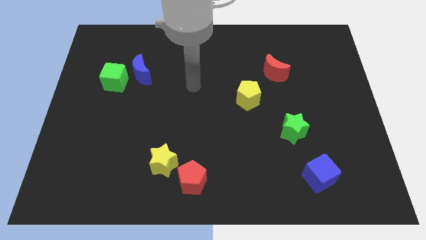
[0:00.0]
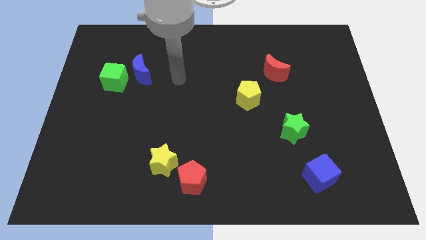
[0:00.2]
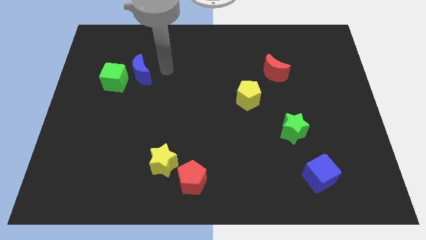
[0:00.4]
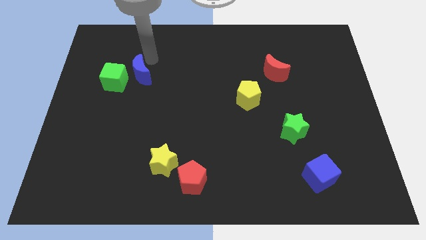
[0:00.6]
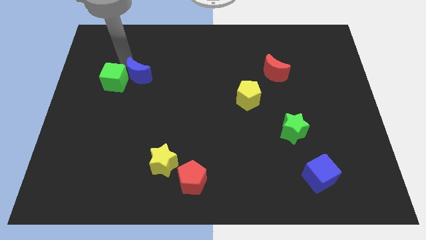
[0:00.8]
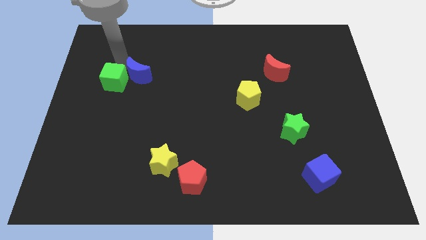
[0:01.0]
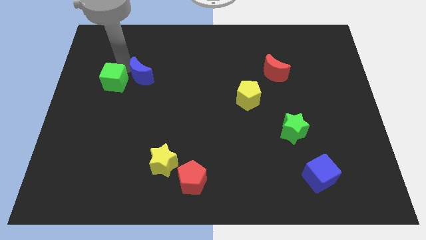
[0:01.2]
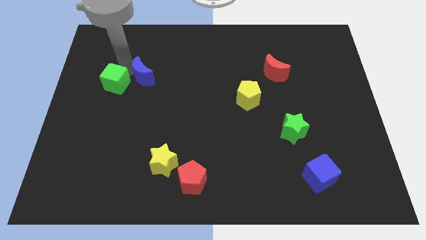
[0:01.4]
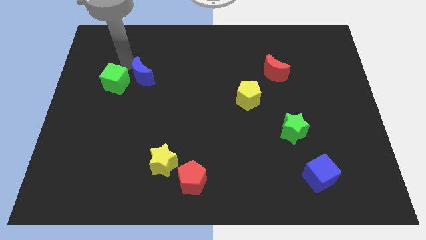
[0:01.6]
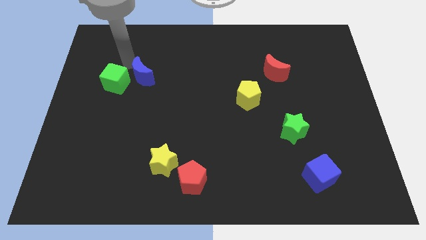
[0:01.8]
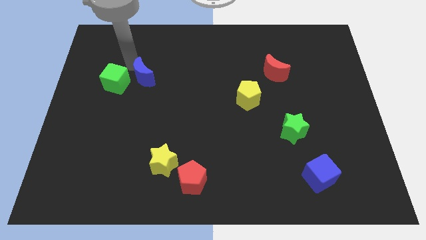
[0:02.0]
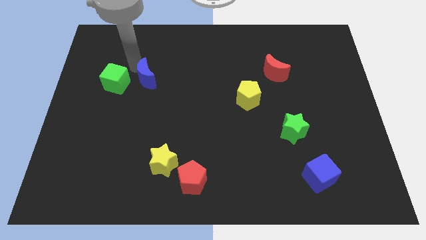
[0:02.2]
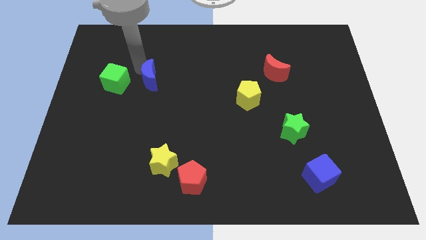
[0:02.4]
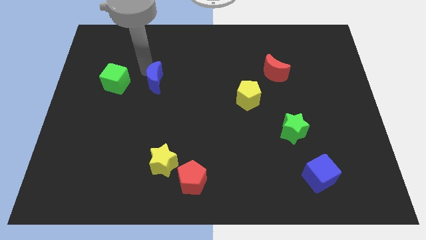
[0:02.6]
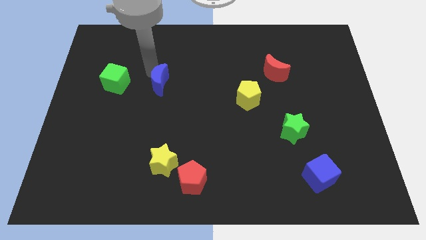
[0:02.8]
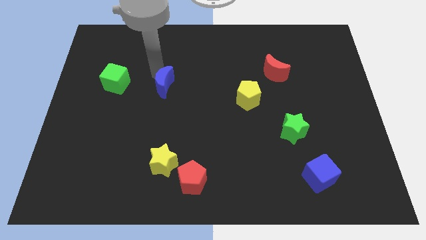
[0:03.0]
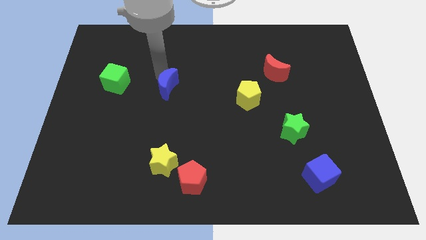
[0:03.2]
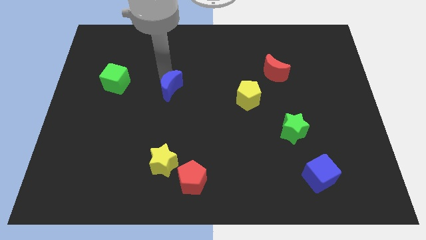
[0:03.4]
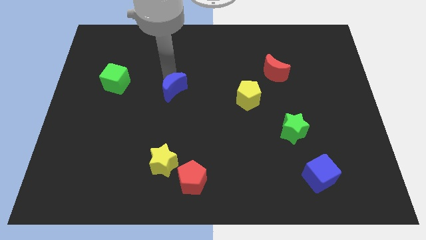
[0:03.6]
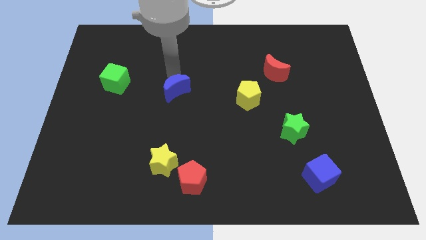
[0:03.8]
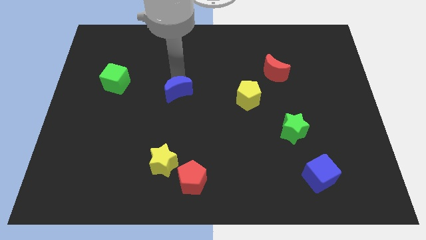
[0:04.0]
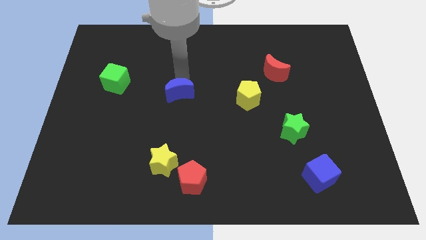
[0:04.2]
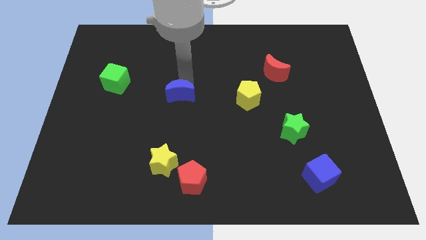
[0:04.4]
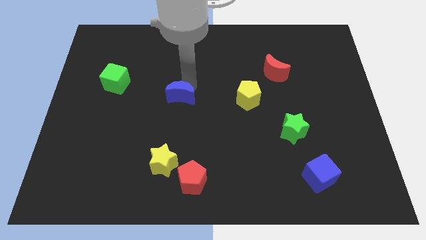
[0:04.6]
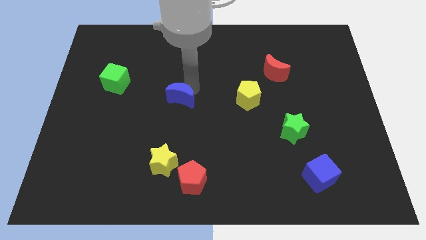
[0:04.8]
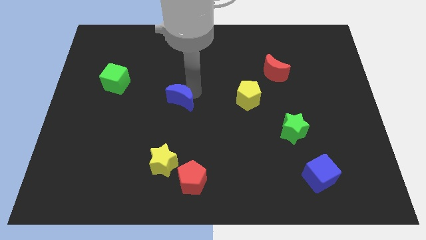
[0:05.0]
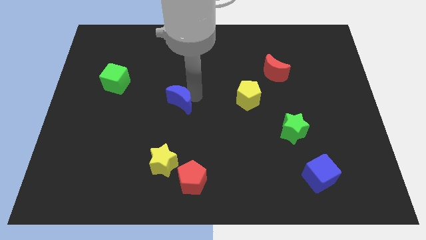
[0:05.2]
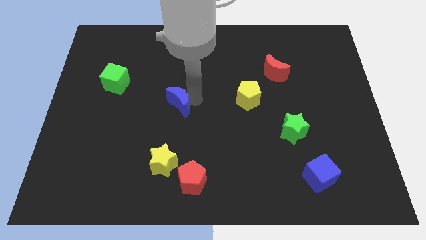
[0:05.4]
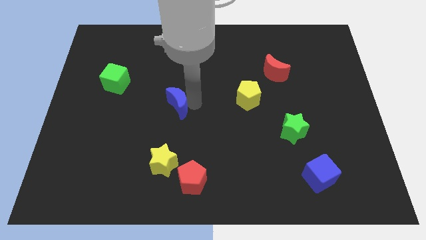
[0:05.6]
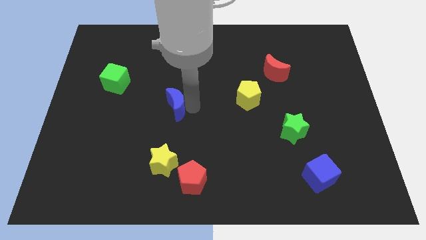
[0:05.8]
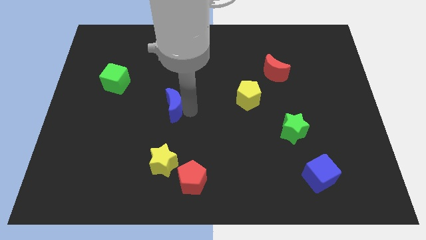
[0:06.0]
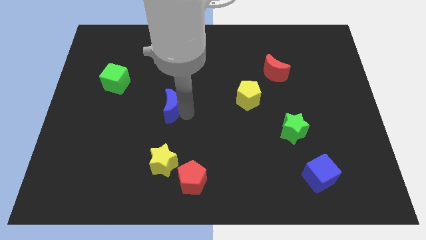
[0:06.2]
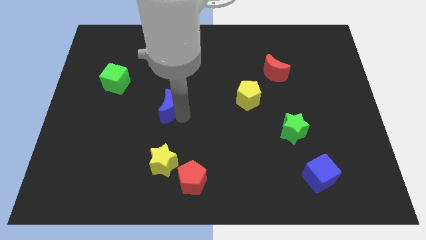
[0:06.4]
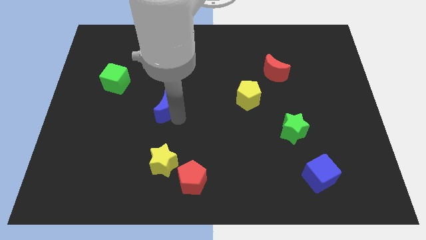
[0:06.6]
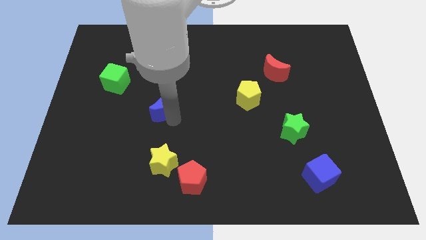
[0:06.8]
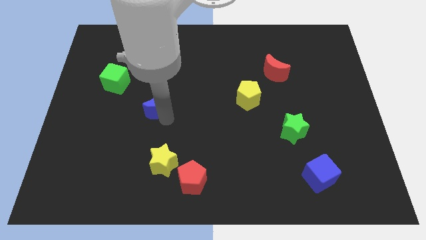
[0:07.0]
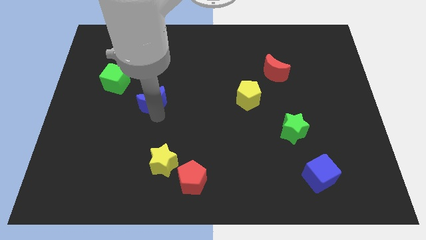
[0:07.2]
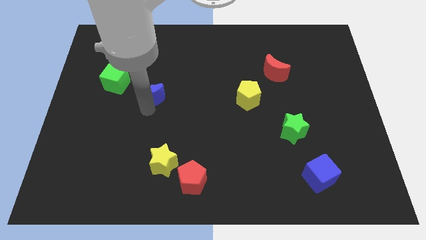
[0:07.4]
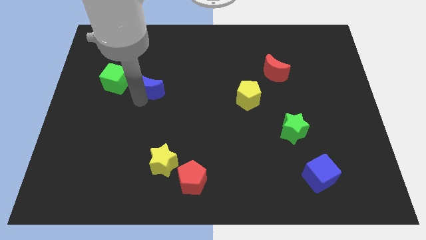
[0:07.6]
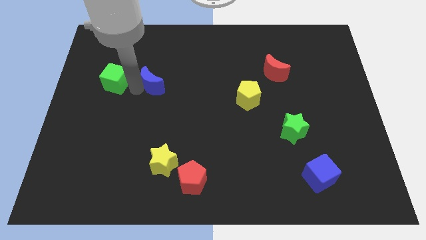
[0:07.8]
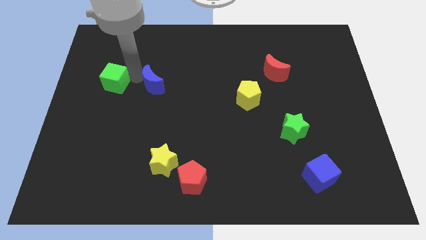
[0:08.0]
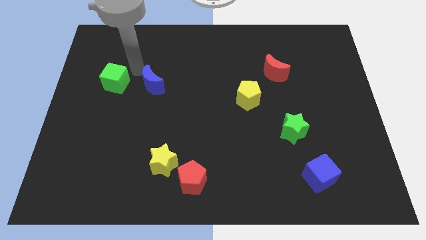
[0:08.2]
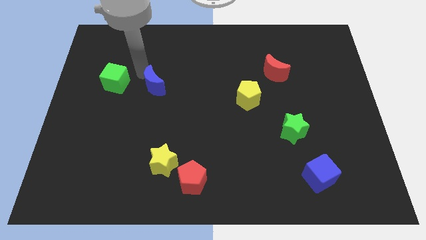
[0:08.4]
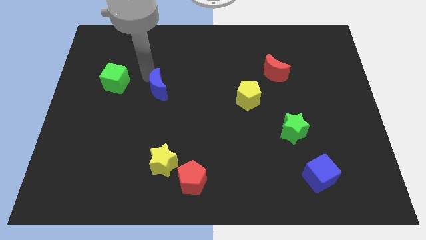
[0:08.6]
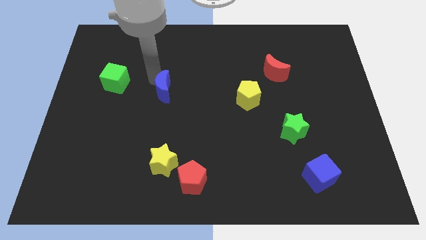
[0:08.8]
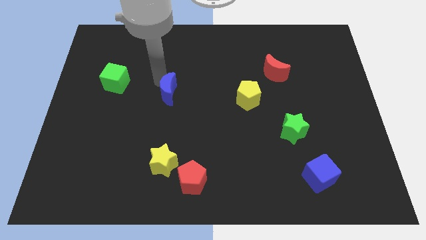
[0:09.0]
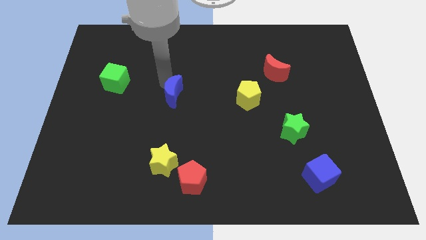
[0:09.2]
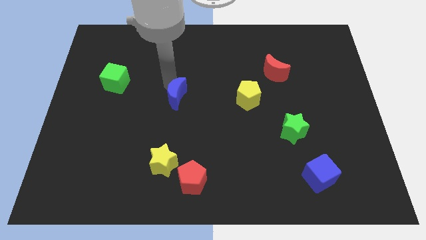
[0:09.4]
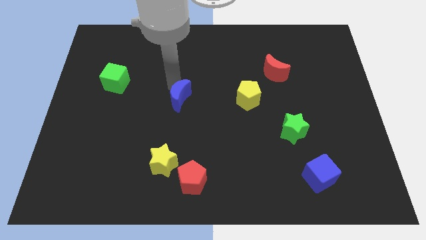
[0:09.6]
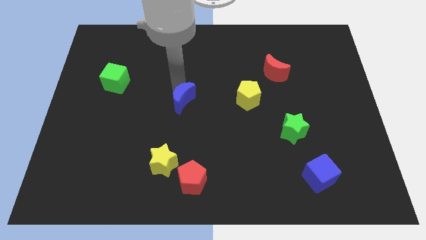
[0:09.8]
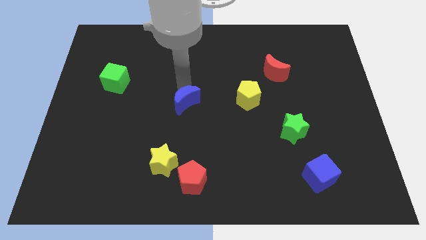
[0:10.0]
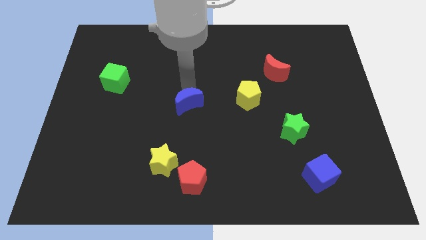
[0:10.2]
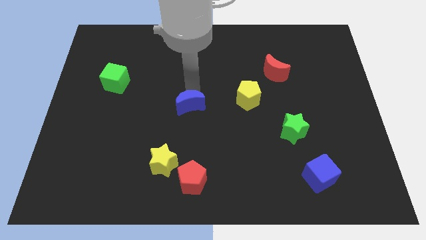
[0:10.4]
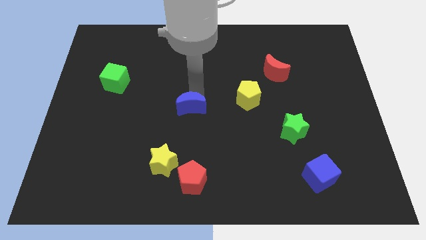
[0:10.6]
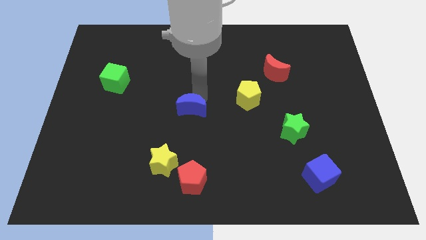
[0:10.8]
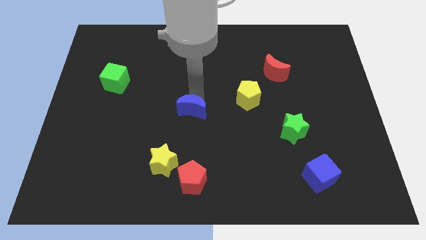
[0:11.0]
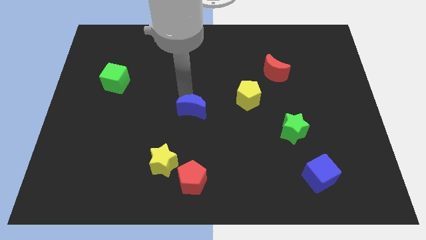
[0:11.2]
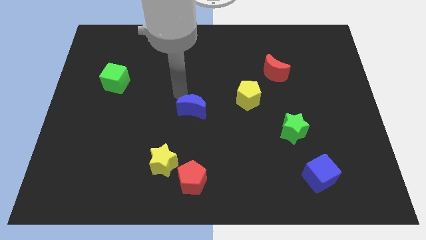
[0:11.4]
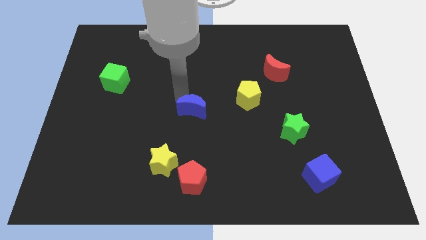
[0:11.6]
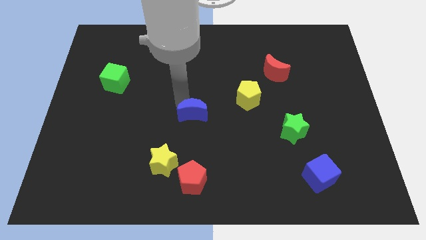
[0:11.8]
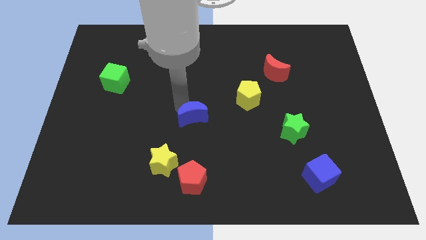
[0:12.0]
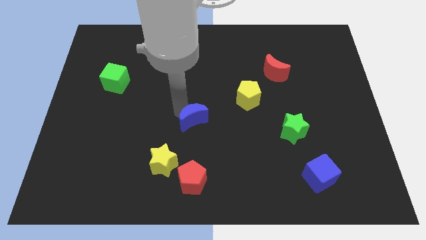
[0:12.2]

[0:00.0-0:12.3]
slide the blue moon downwards and to the right diagonally

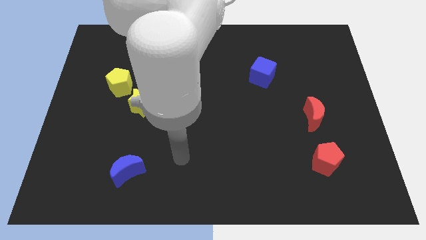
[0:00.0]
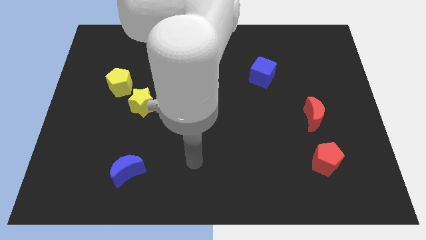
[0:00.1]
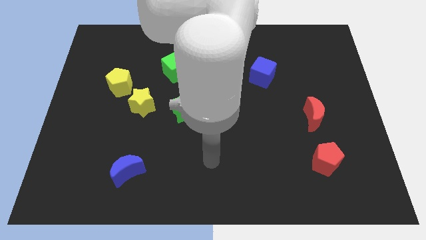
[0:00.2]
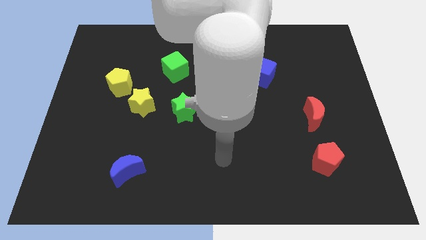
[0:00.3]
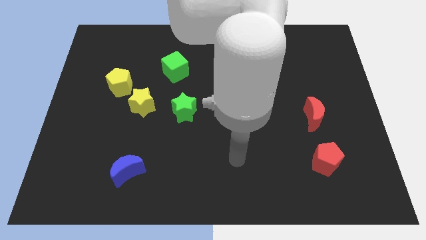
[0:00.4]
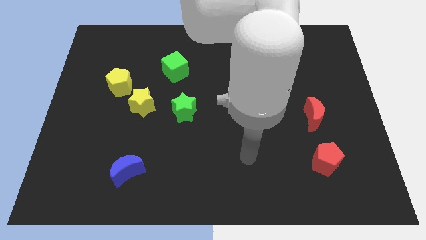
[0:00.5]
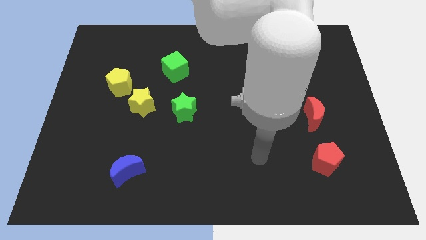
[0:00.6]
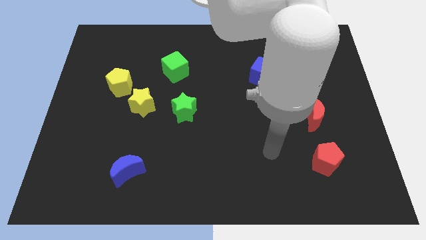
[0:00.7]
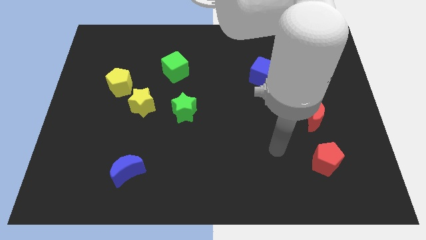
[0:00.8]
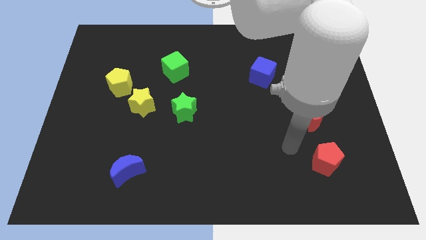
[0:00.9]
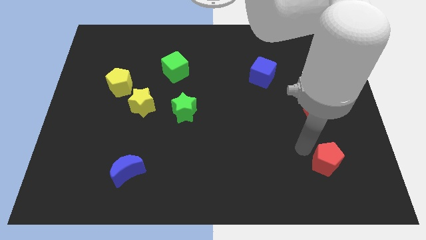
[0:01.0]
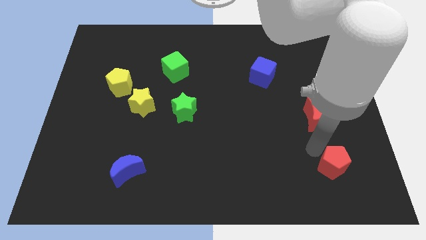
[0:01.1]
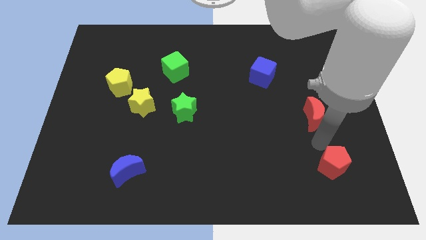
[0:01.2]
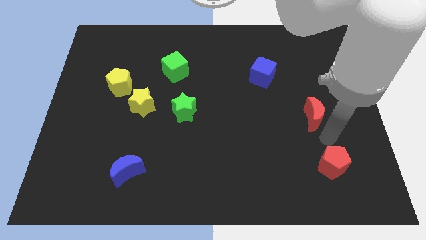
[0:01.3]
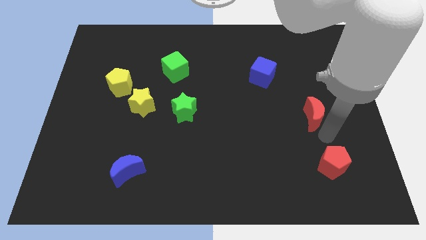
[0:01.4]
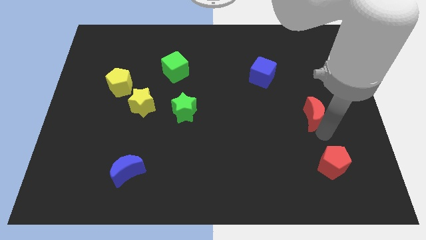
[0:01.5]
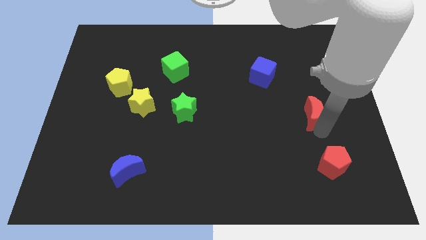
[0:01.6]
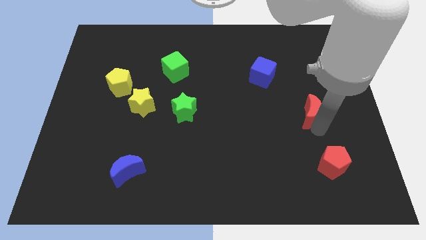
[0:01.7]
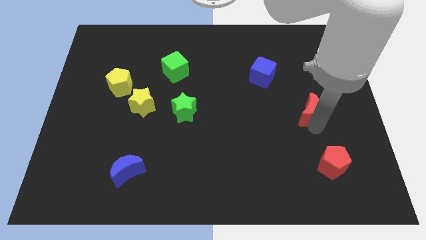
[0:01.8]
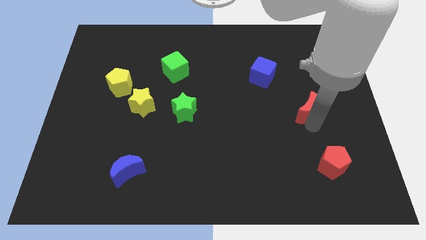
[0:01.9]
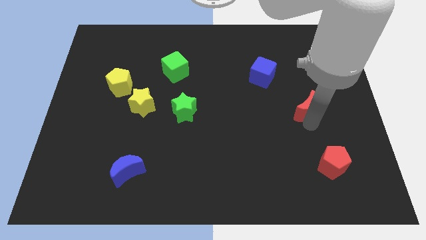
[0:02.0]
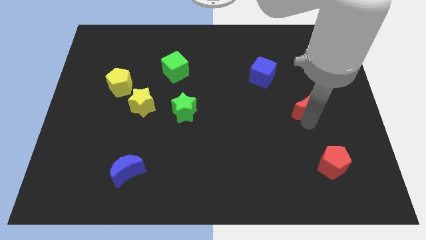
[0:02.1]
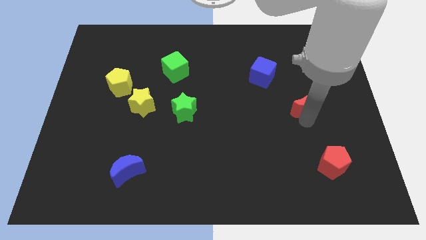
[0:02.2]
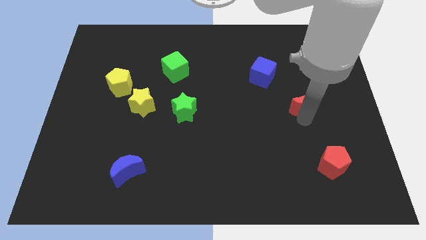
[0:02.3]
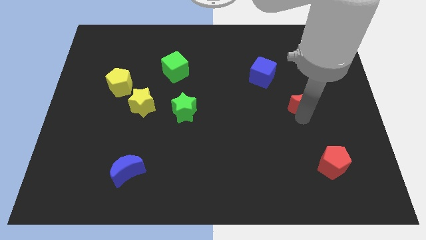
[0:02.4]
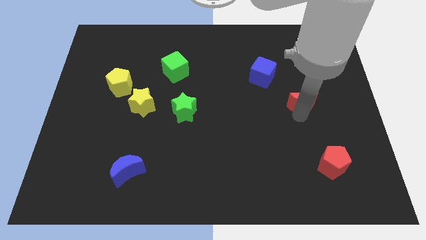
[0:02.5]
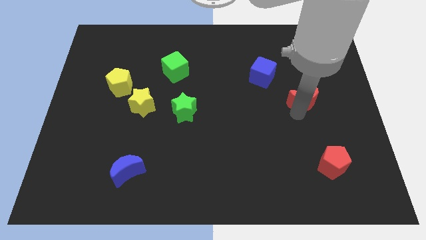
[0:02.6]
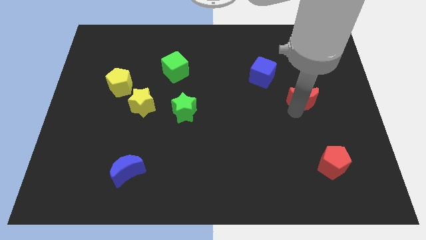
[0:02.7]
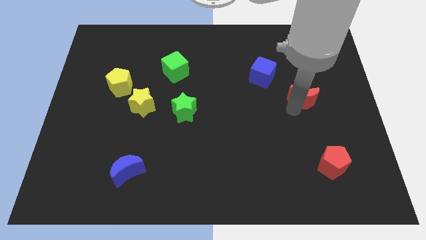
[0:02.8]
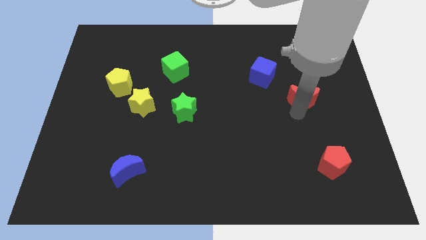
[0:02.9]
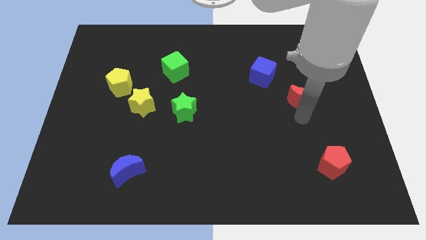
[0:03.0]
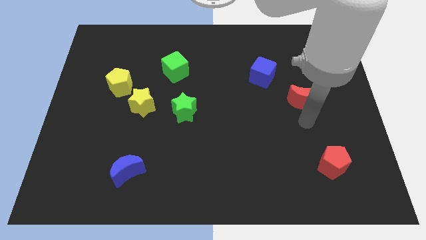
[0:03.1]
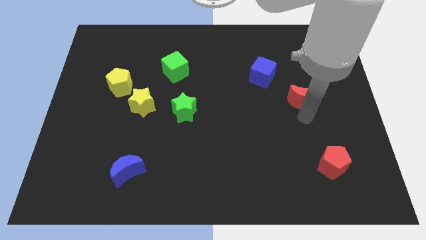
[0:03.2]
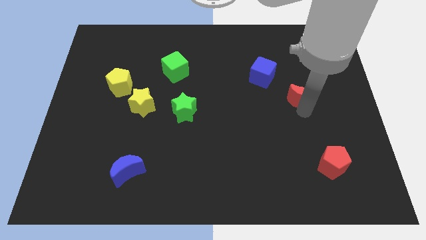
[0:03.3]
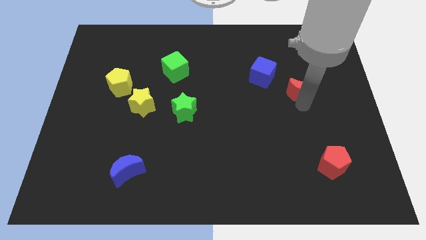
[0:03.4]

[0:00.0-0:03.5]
move the red moon a little upwards
